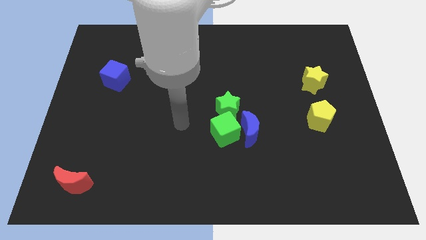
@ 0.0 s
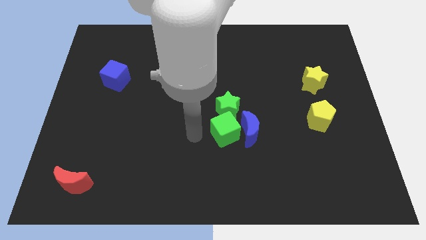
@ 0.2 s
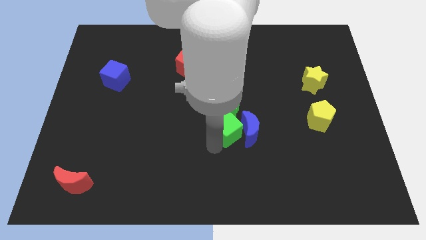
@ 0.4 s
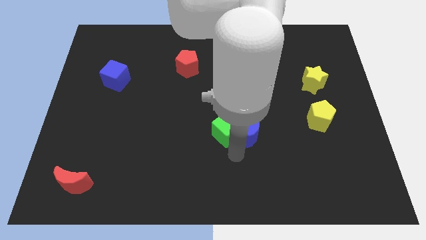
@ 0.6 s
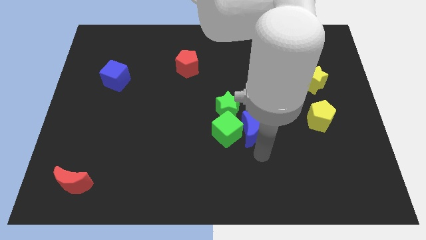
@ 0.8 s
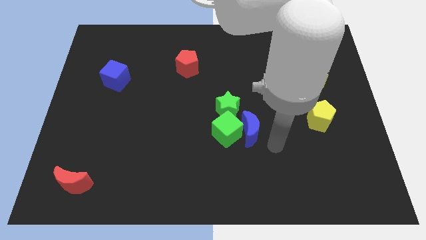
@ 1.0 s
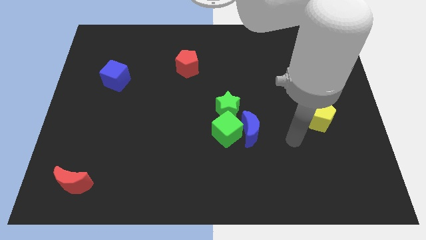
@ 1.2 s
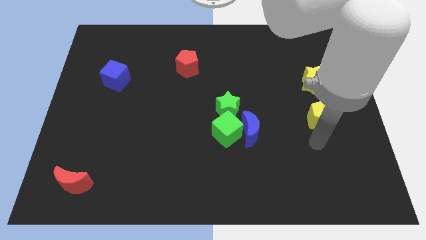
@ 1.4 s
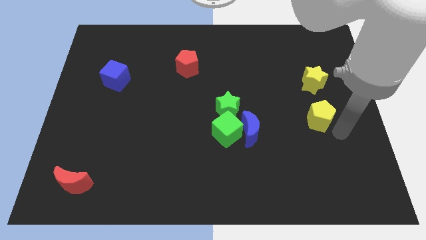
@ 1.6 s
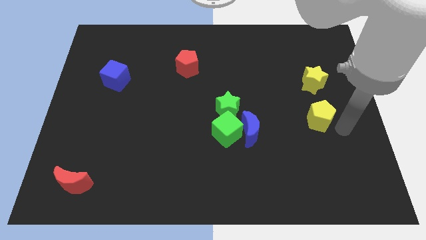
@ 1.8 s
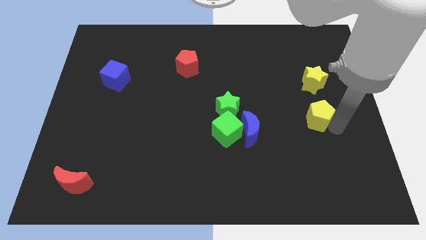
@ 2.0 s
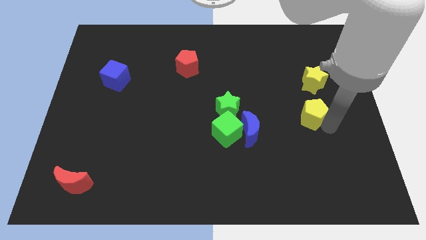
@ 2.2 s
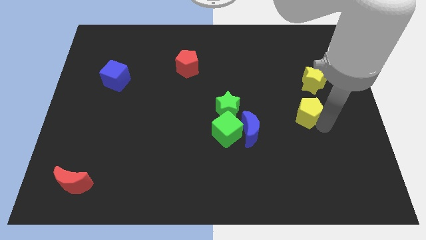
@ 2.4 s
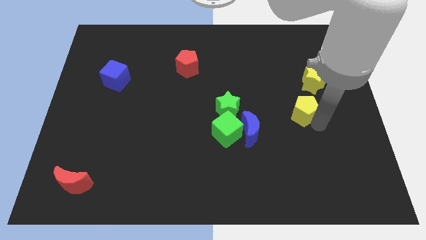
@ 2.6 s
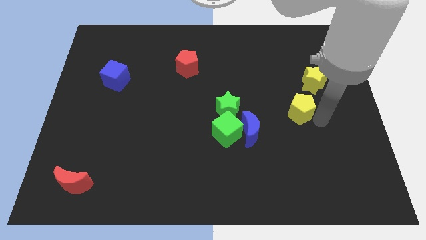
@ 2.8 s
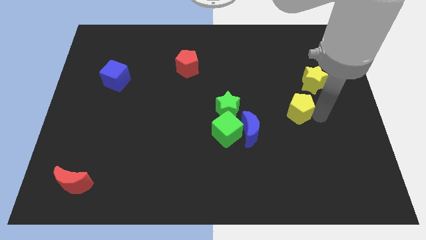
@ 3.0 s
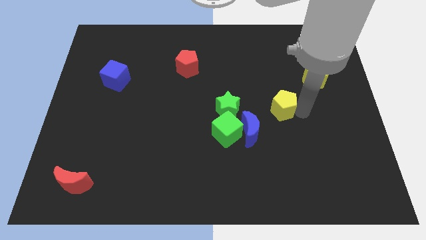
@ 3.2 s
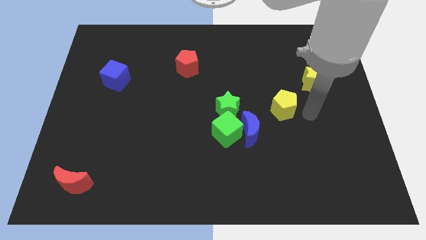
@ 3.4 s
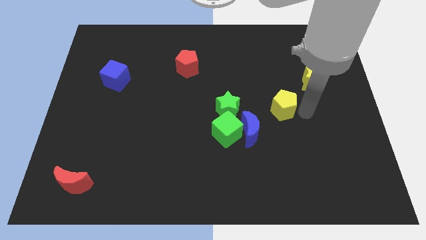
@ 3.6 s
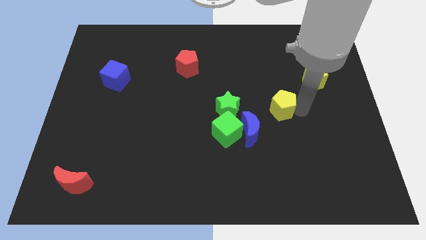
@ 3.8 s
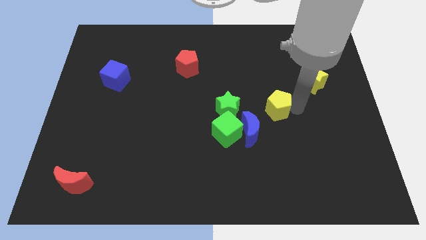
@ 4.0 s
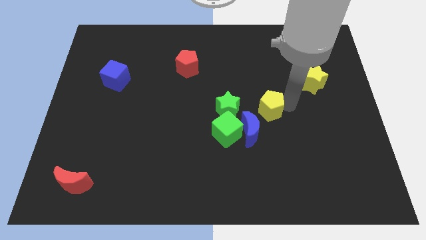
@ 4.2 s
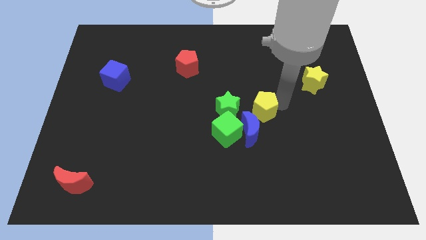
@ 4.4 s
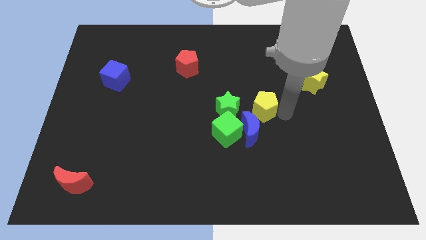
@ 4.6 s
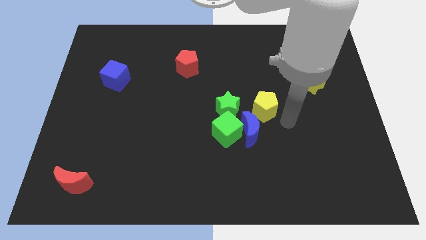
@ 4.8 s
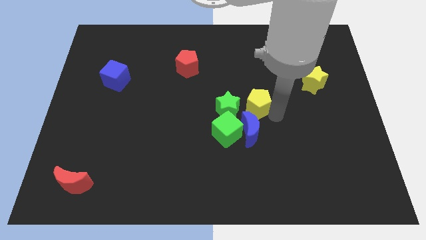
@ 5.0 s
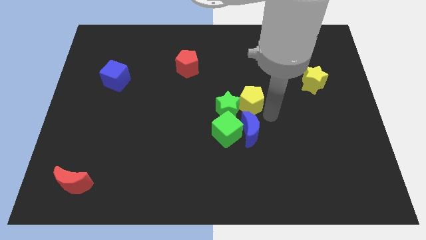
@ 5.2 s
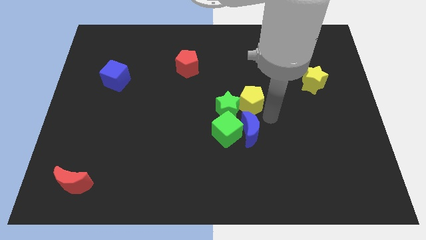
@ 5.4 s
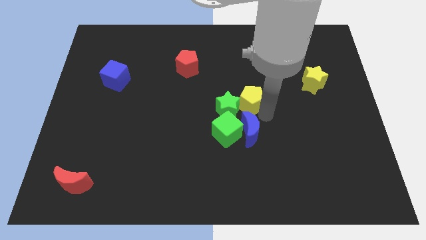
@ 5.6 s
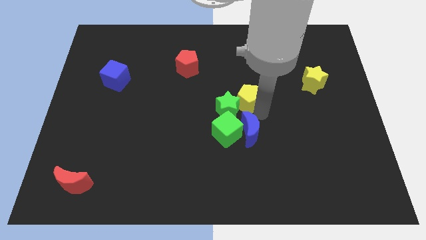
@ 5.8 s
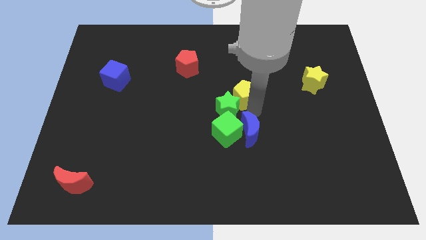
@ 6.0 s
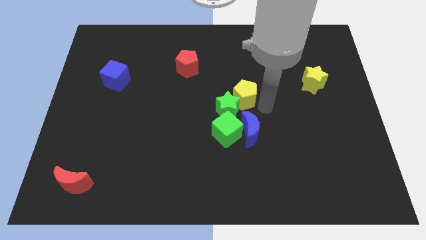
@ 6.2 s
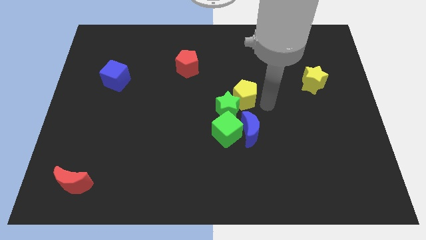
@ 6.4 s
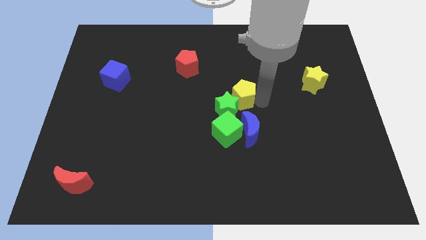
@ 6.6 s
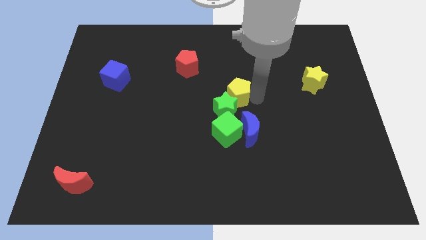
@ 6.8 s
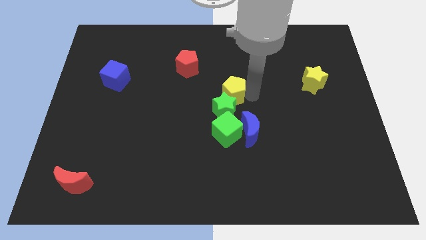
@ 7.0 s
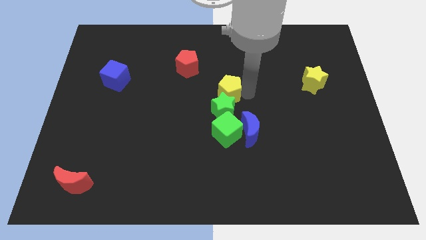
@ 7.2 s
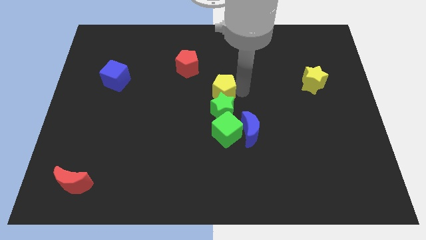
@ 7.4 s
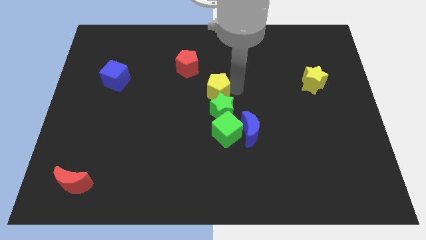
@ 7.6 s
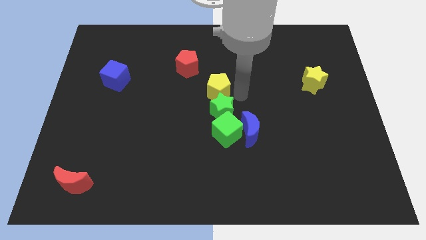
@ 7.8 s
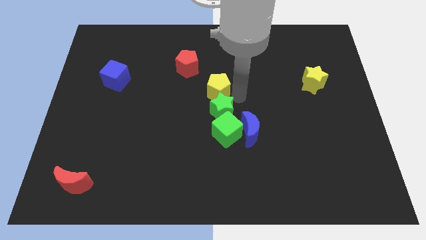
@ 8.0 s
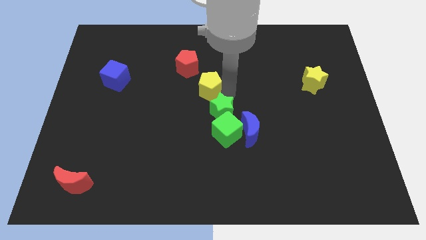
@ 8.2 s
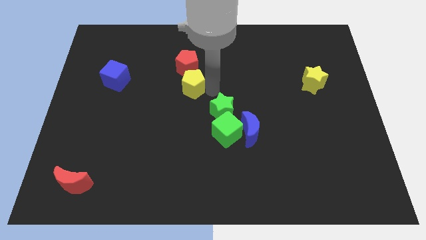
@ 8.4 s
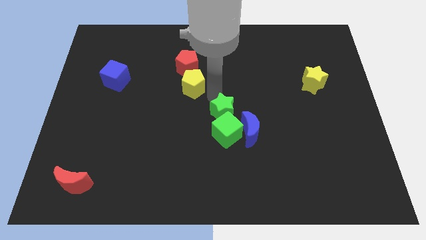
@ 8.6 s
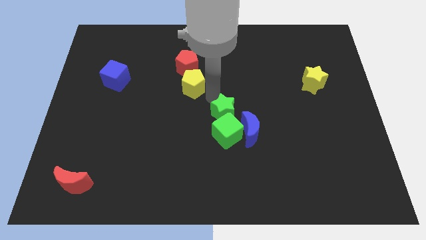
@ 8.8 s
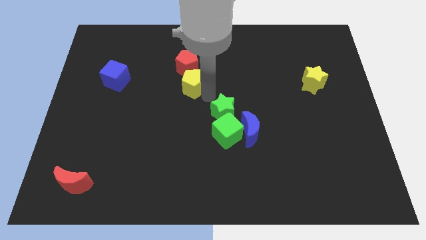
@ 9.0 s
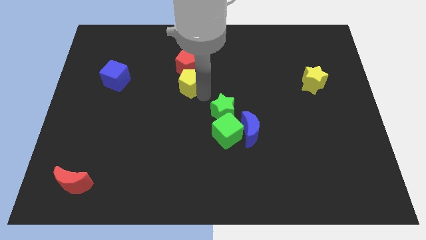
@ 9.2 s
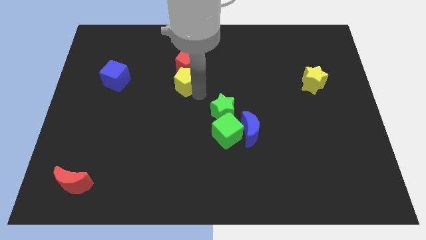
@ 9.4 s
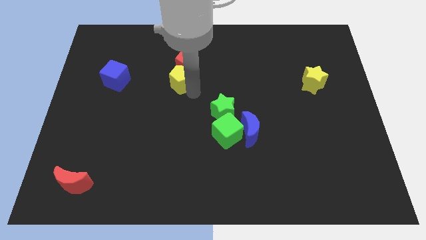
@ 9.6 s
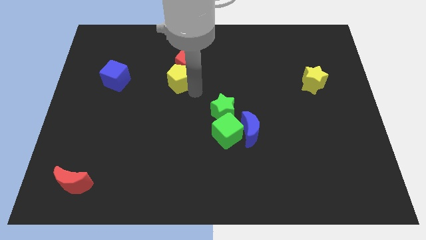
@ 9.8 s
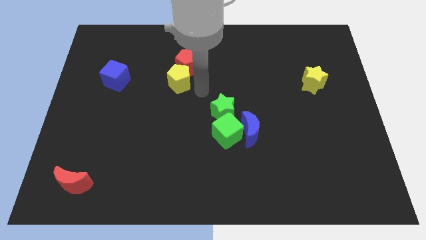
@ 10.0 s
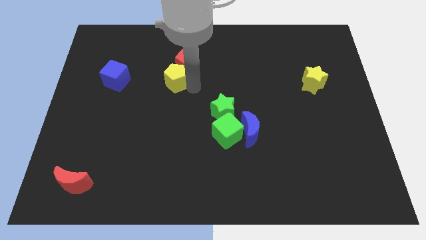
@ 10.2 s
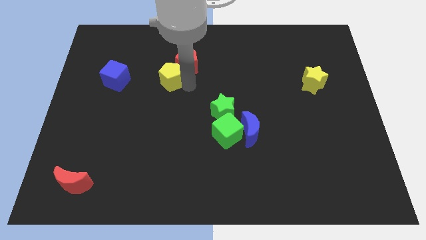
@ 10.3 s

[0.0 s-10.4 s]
slide the yellow pentagon just left of the red pentagon
